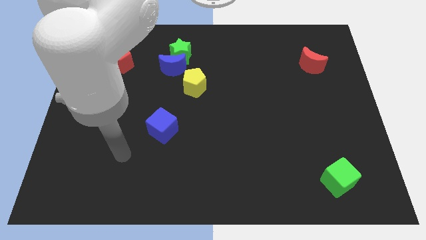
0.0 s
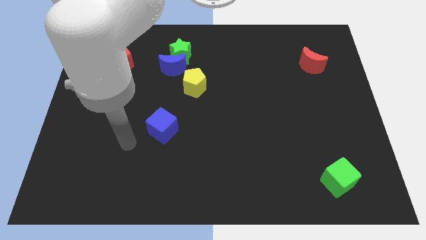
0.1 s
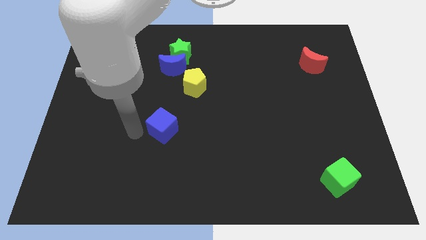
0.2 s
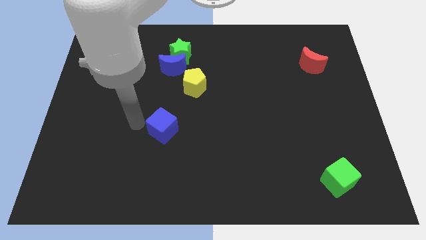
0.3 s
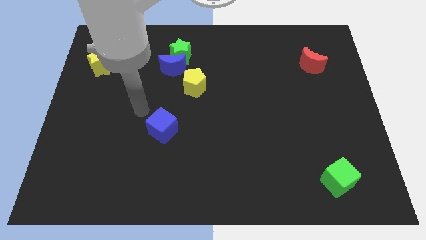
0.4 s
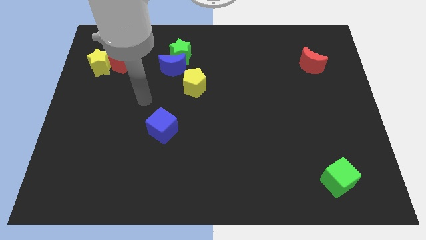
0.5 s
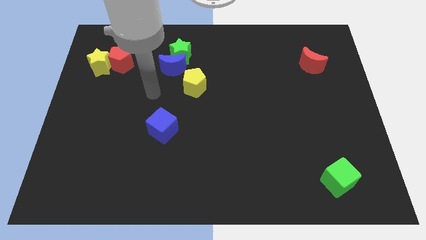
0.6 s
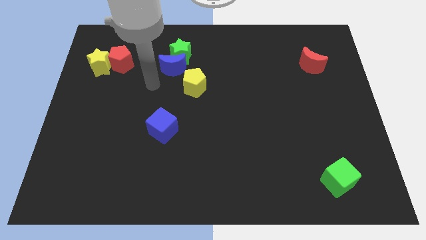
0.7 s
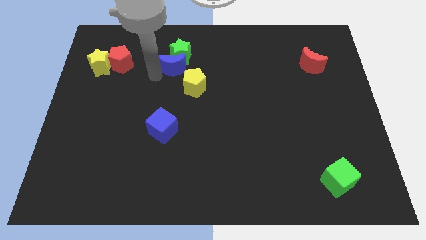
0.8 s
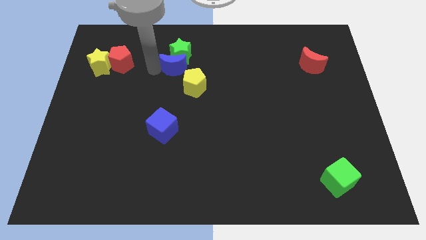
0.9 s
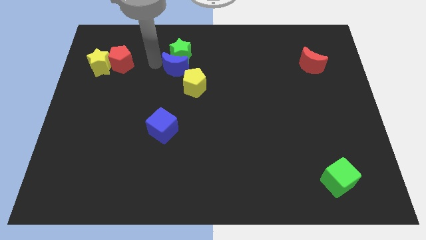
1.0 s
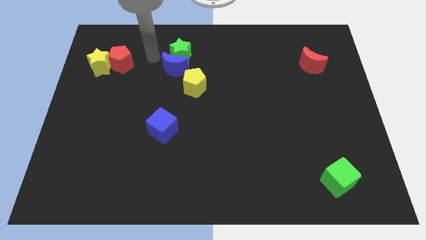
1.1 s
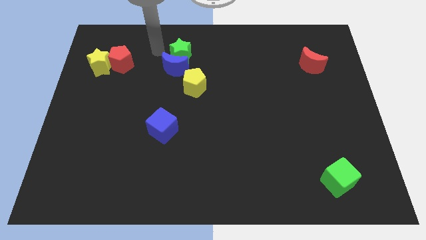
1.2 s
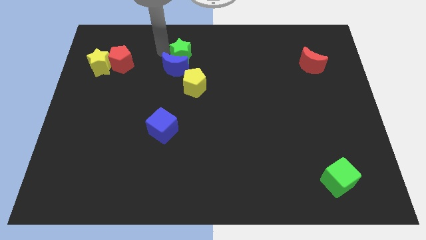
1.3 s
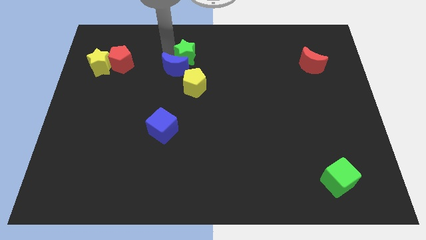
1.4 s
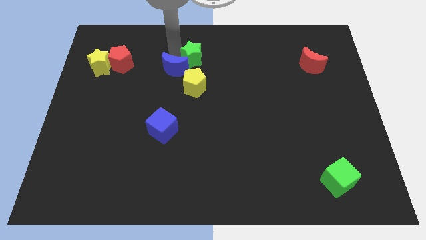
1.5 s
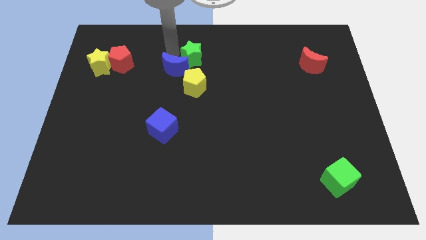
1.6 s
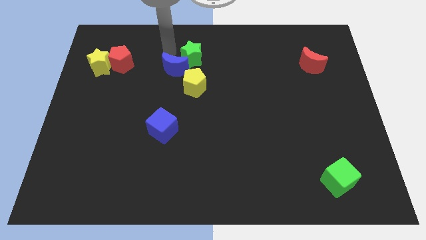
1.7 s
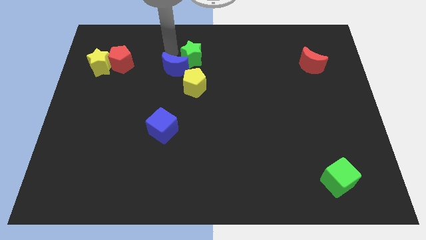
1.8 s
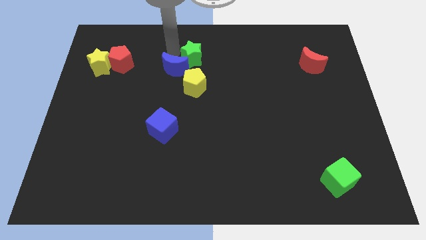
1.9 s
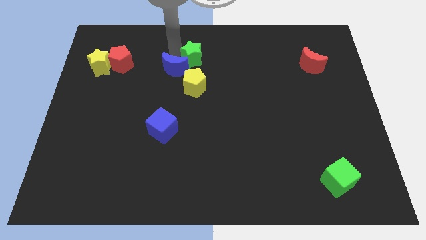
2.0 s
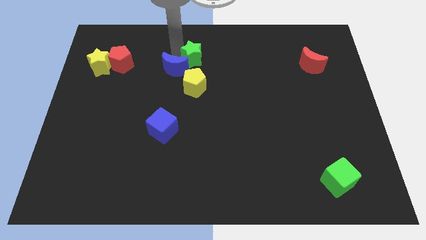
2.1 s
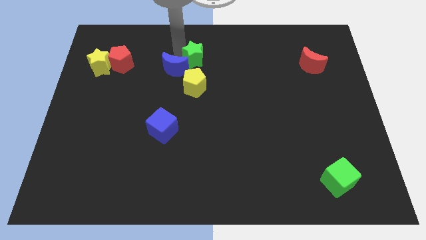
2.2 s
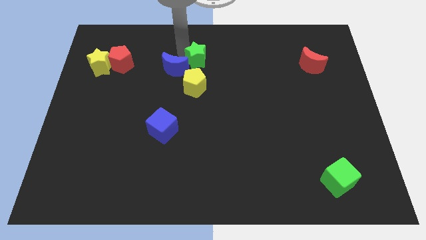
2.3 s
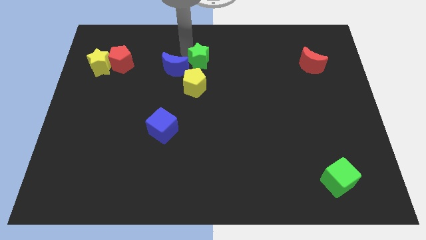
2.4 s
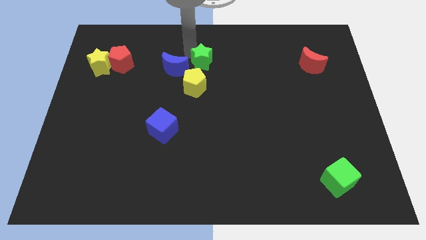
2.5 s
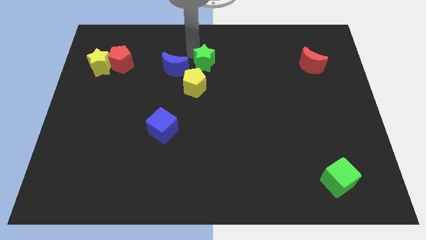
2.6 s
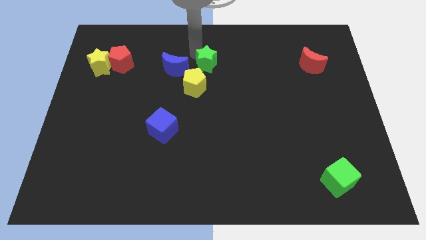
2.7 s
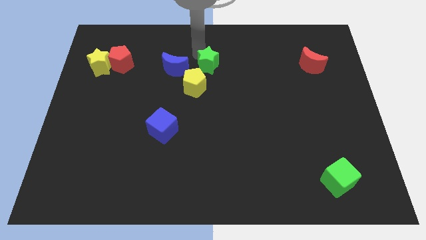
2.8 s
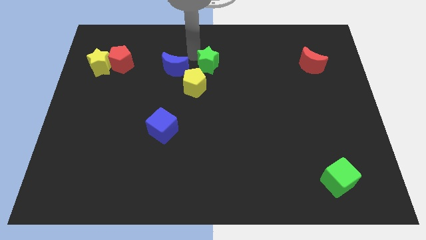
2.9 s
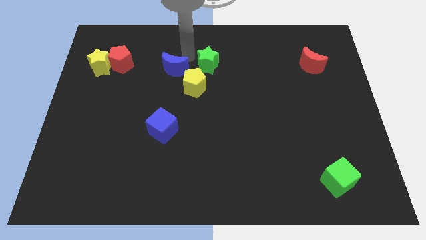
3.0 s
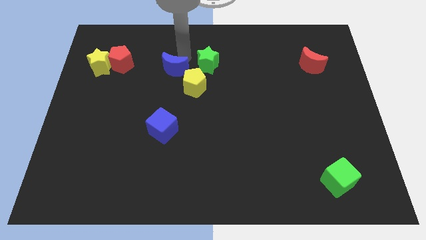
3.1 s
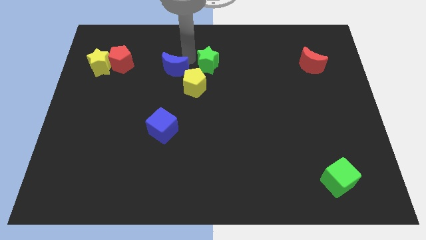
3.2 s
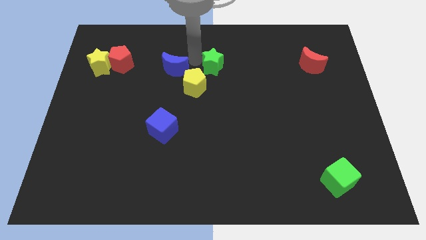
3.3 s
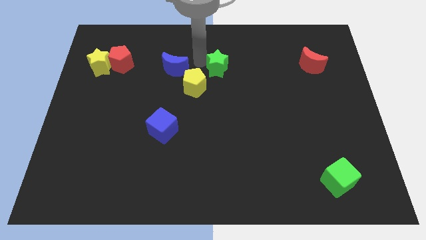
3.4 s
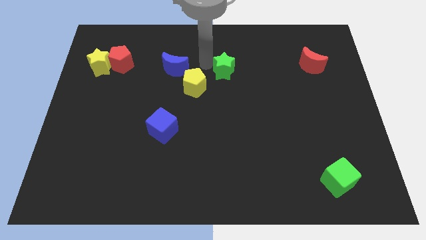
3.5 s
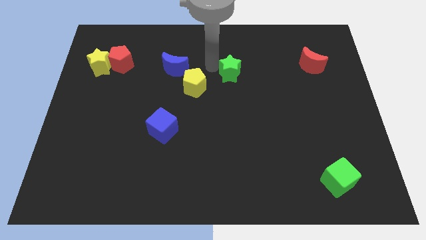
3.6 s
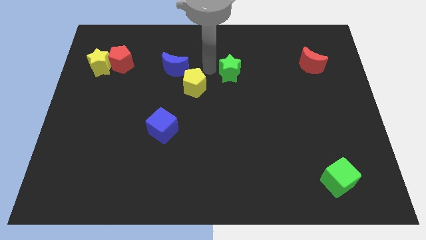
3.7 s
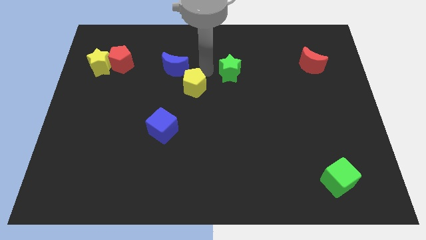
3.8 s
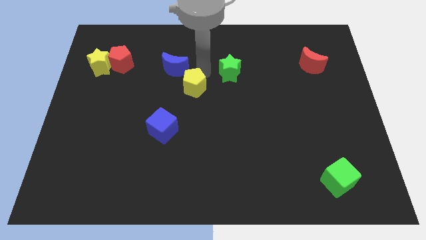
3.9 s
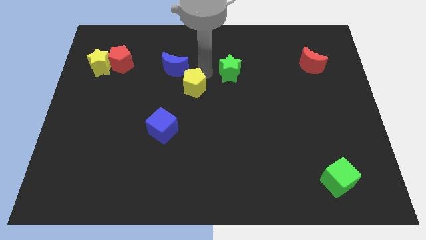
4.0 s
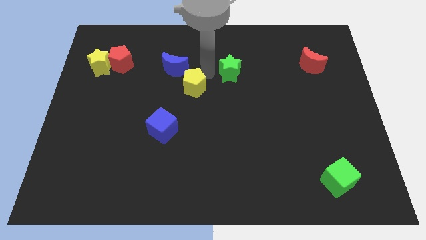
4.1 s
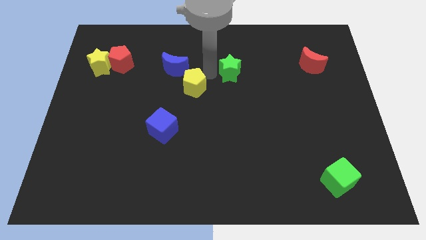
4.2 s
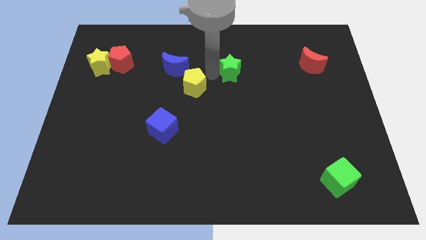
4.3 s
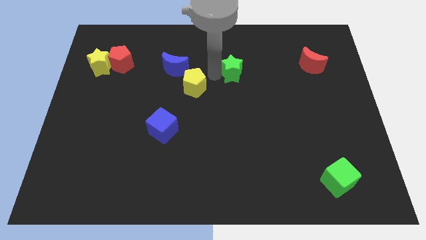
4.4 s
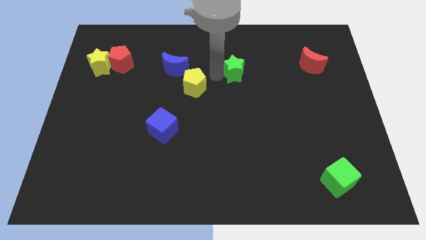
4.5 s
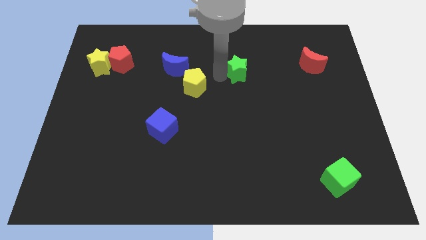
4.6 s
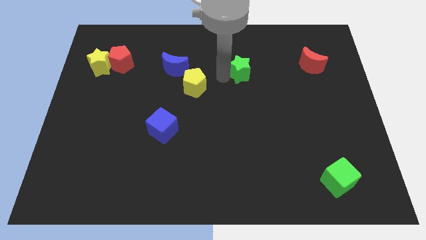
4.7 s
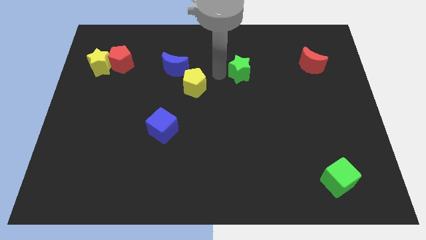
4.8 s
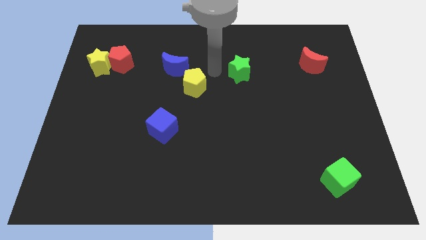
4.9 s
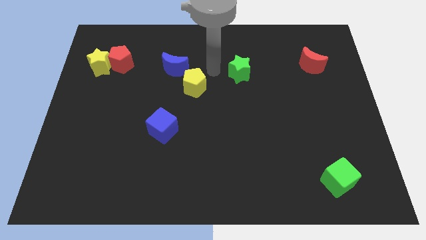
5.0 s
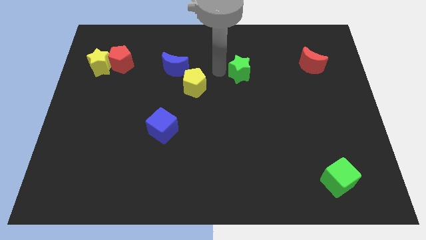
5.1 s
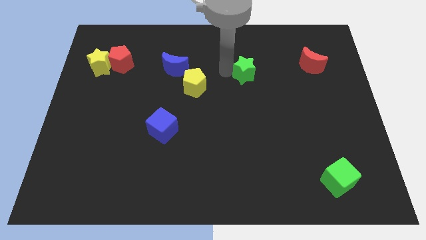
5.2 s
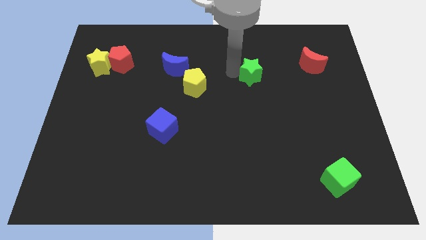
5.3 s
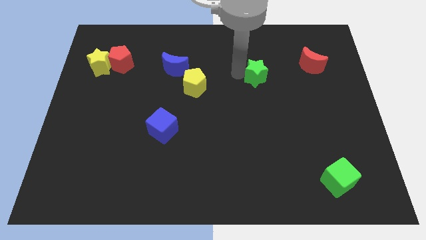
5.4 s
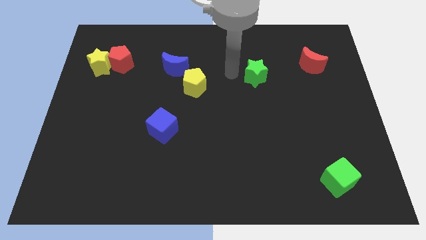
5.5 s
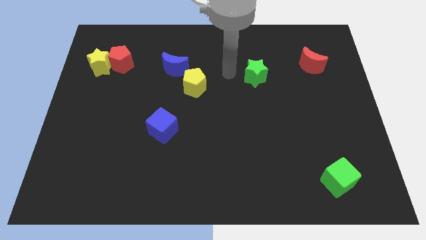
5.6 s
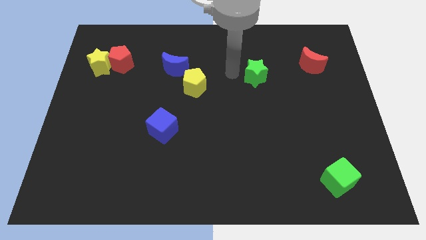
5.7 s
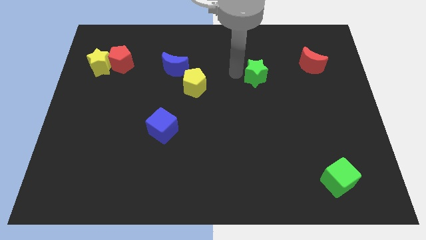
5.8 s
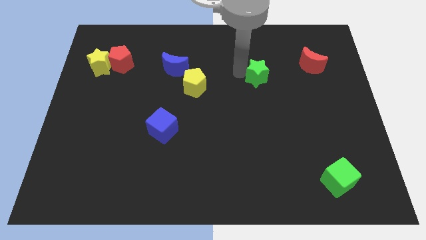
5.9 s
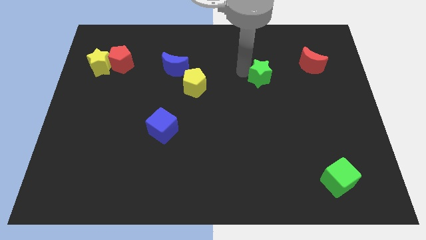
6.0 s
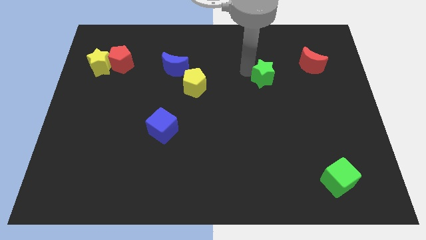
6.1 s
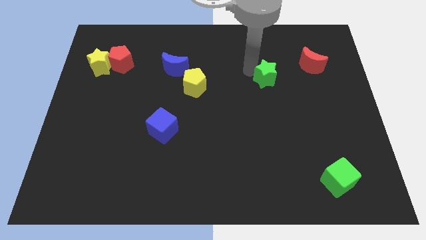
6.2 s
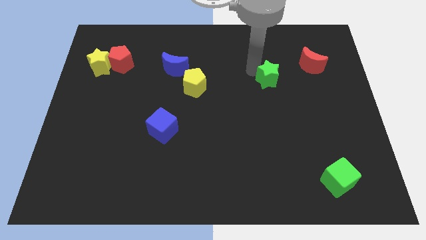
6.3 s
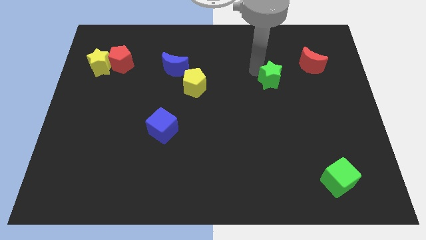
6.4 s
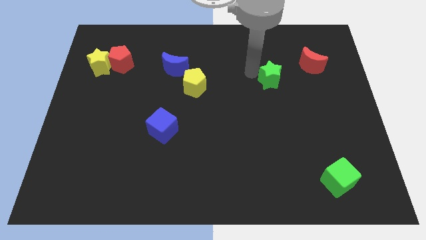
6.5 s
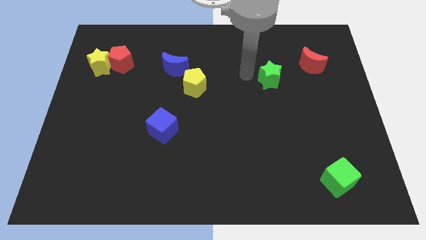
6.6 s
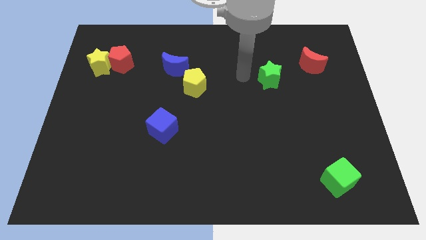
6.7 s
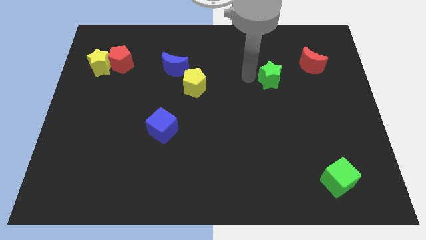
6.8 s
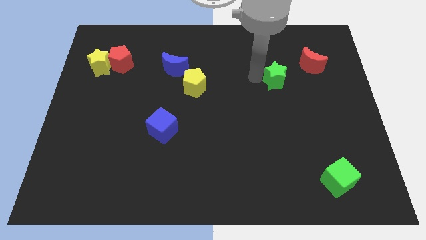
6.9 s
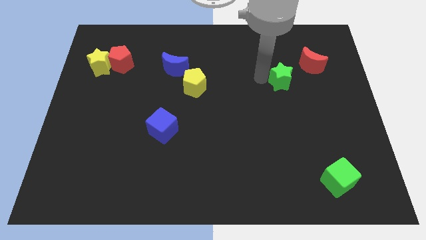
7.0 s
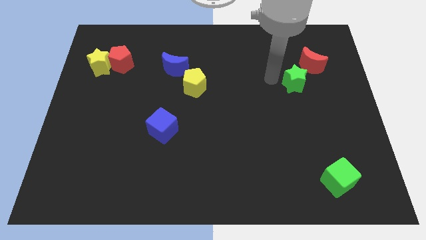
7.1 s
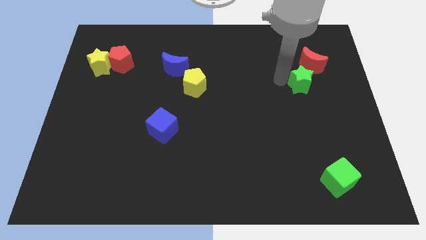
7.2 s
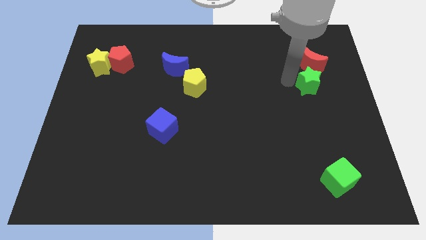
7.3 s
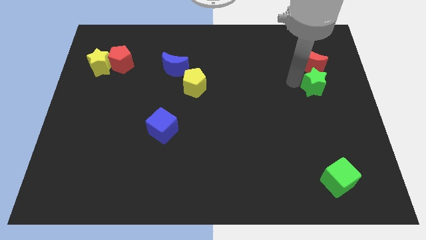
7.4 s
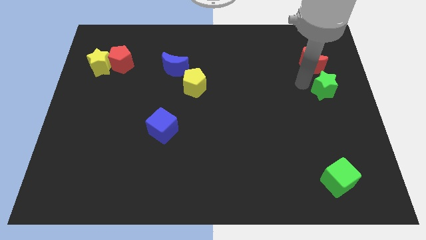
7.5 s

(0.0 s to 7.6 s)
slide the green star to the right side
